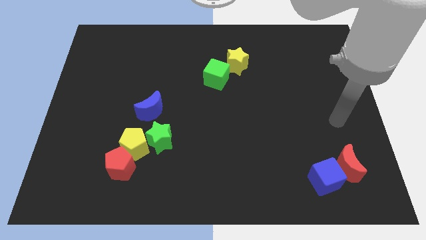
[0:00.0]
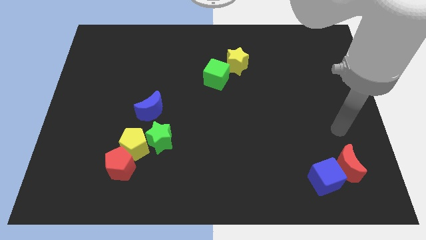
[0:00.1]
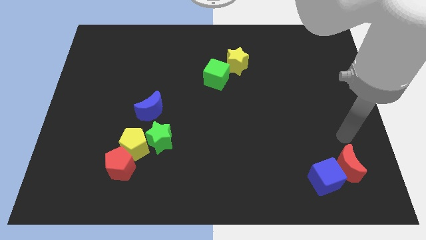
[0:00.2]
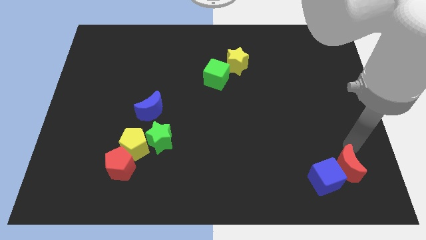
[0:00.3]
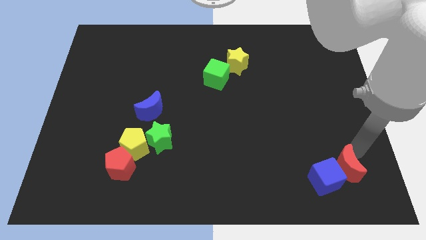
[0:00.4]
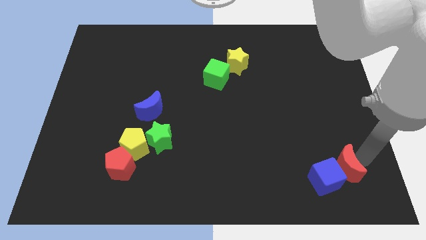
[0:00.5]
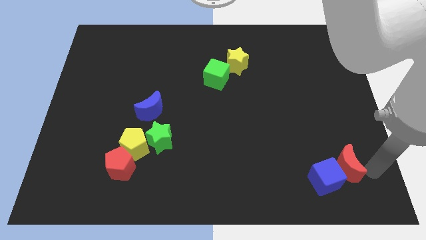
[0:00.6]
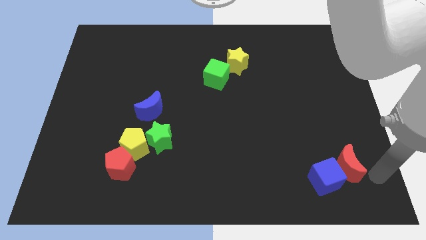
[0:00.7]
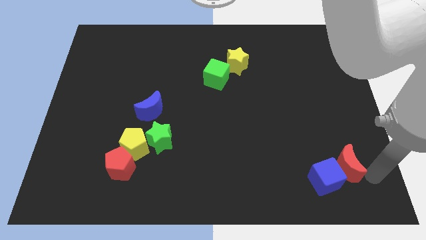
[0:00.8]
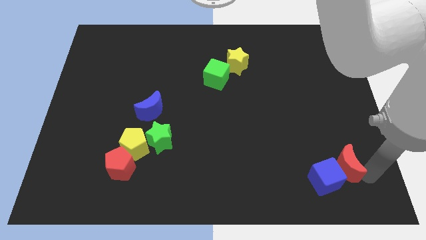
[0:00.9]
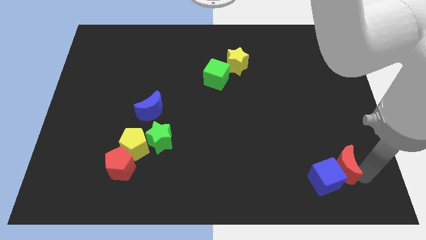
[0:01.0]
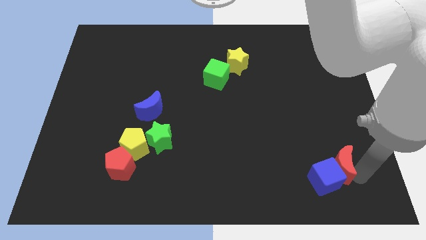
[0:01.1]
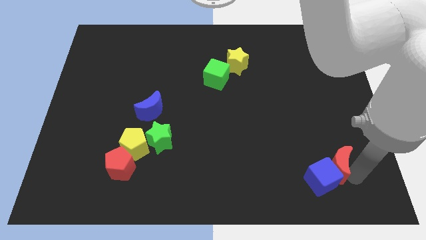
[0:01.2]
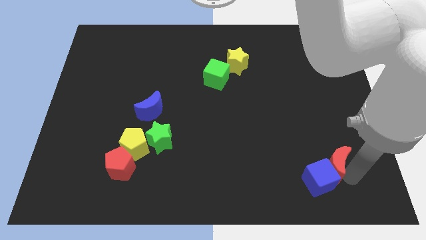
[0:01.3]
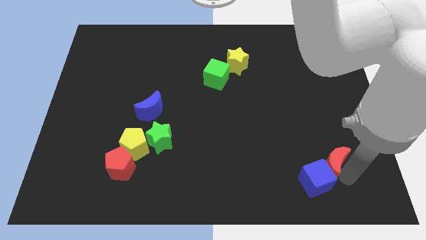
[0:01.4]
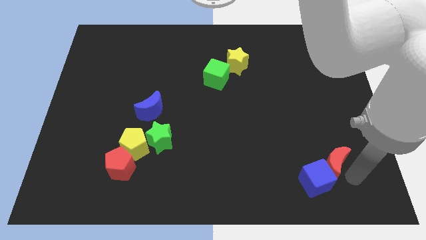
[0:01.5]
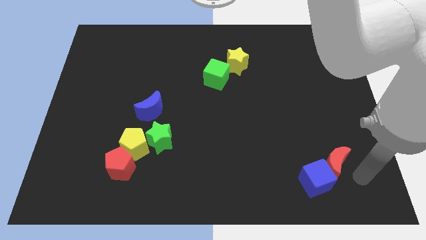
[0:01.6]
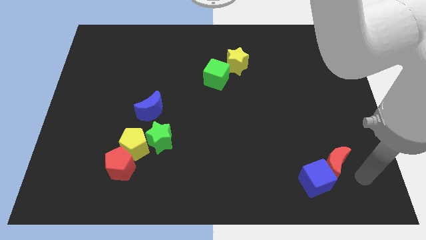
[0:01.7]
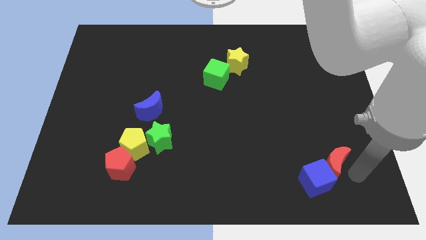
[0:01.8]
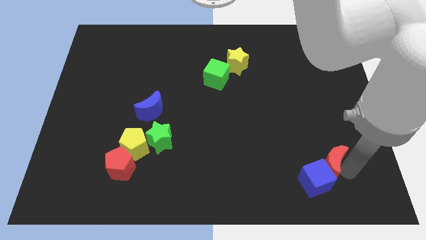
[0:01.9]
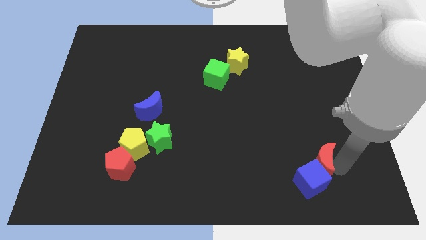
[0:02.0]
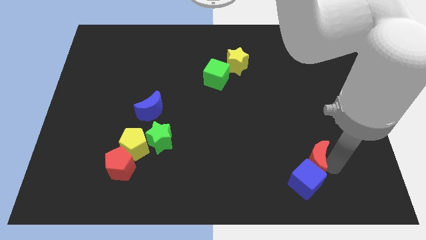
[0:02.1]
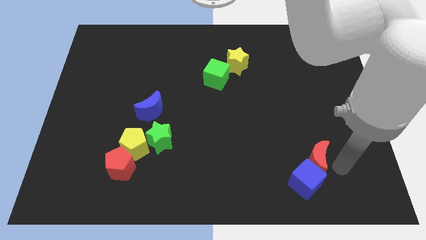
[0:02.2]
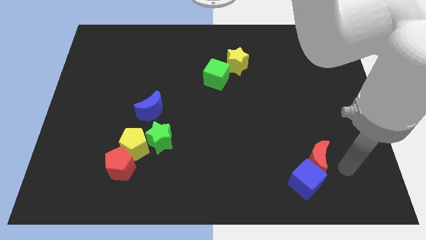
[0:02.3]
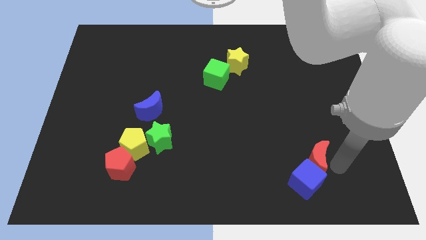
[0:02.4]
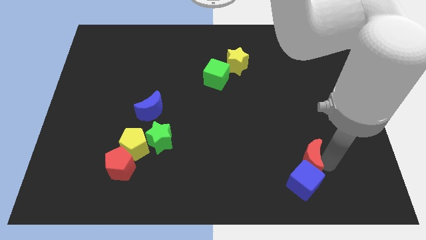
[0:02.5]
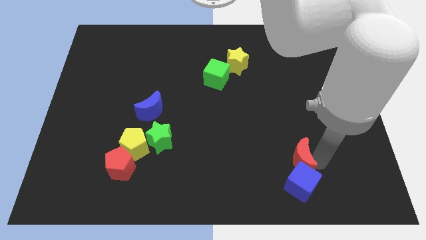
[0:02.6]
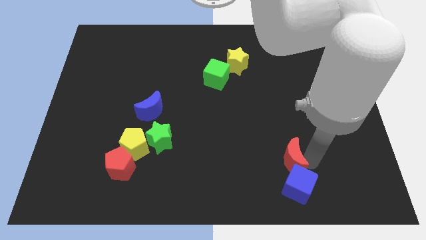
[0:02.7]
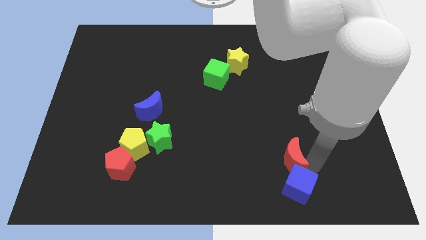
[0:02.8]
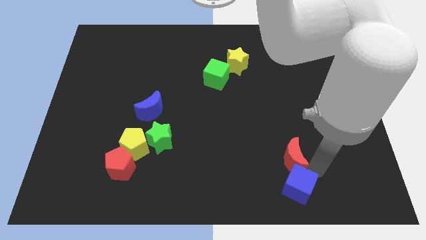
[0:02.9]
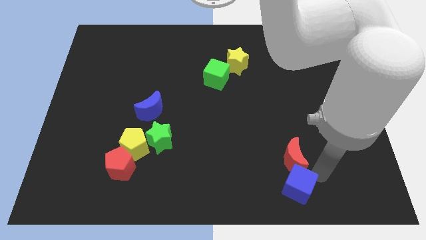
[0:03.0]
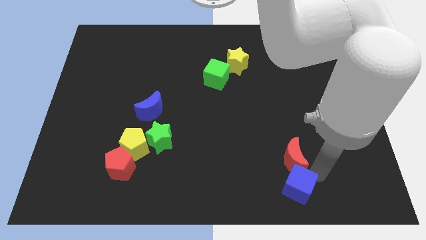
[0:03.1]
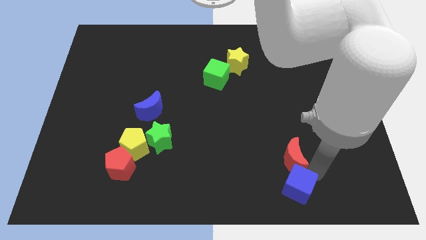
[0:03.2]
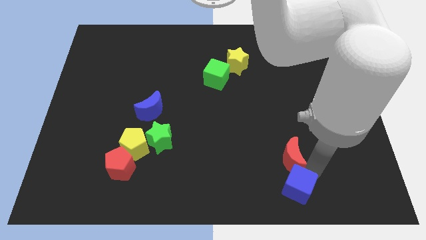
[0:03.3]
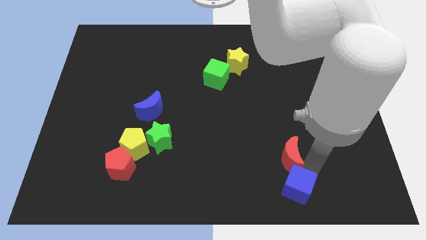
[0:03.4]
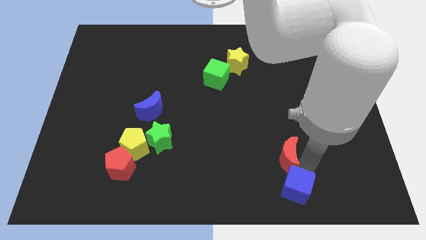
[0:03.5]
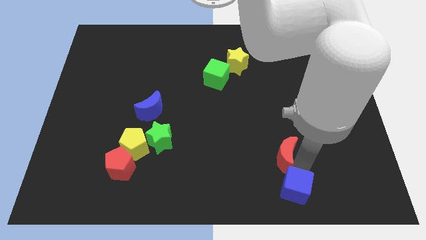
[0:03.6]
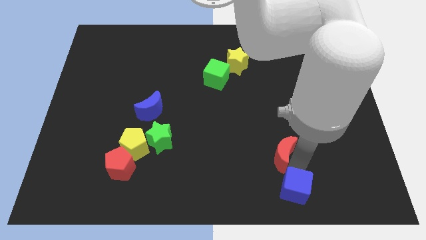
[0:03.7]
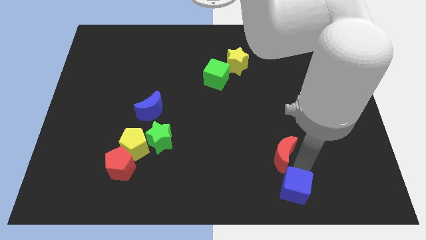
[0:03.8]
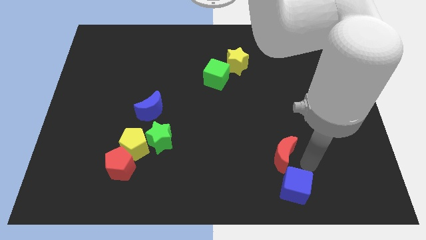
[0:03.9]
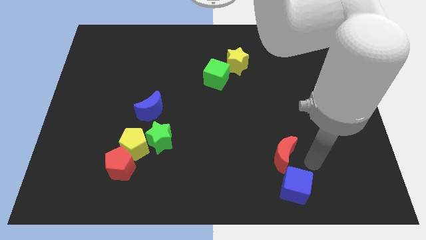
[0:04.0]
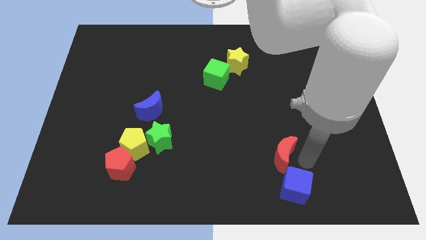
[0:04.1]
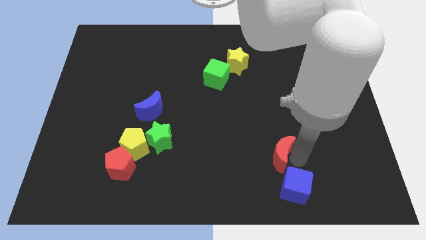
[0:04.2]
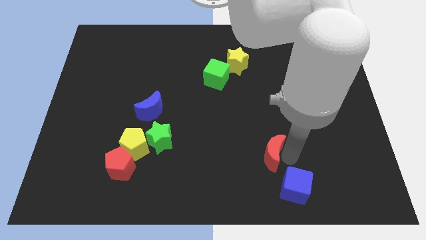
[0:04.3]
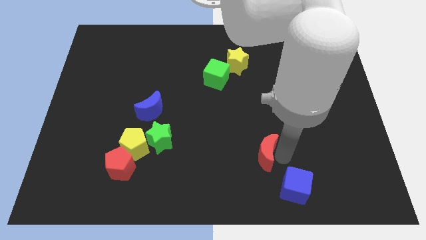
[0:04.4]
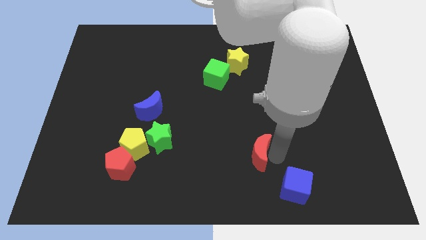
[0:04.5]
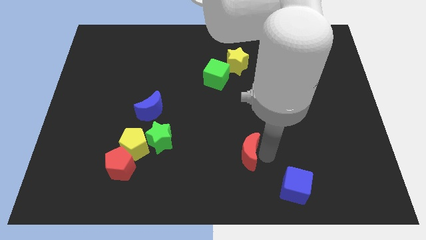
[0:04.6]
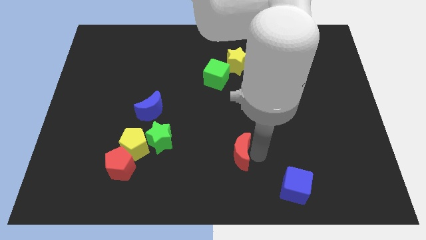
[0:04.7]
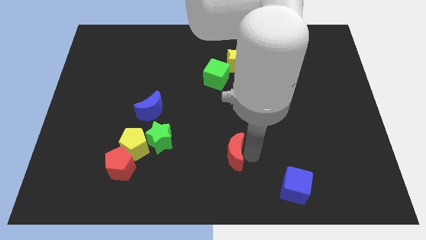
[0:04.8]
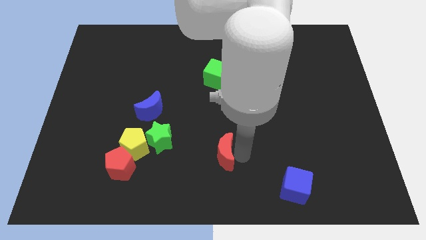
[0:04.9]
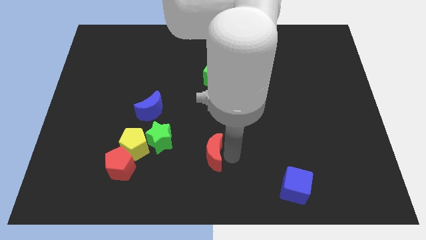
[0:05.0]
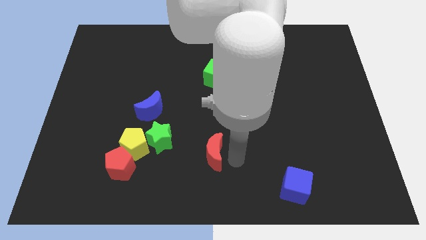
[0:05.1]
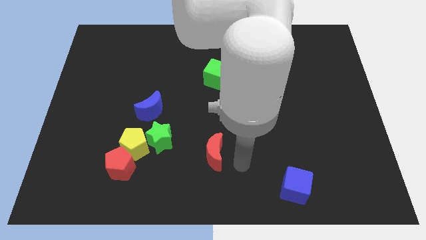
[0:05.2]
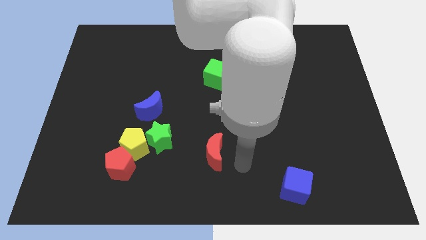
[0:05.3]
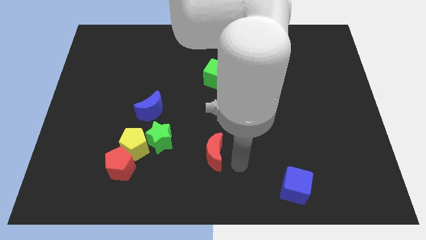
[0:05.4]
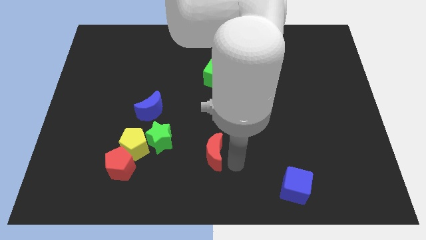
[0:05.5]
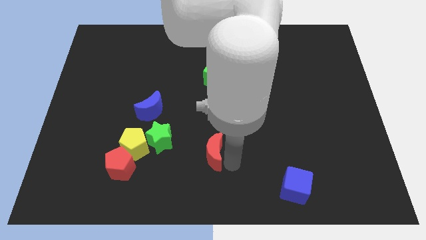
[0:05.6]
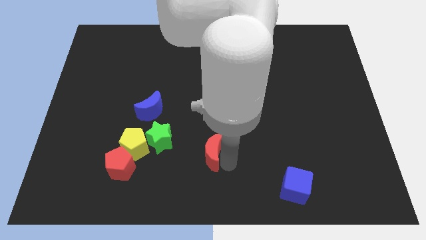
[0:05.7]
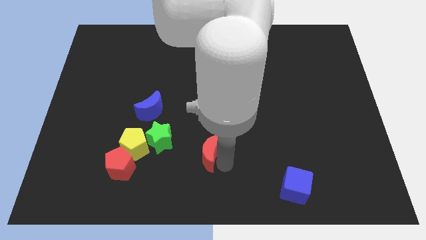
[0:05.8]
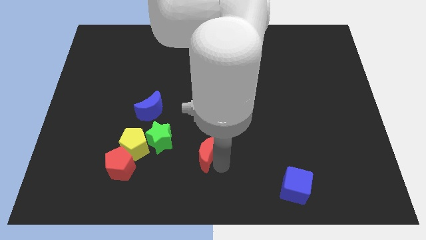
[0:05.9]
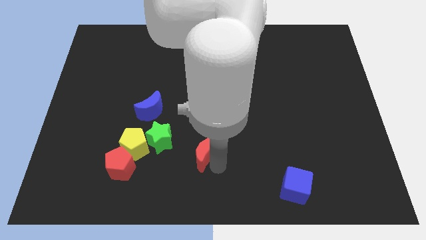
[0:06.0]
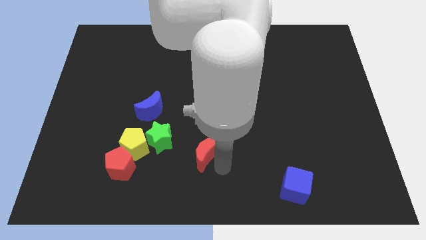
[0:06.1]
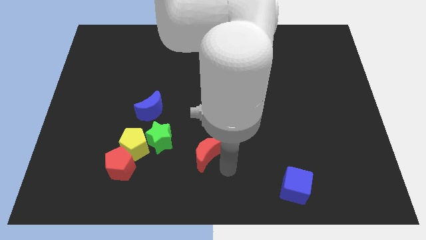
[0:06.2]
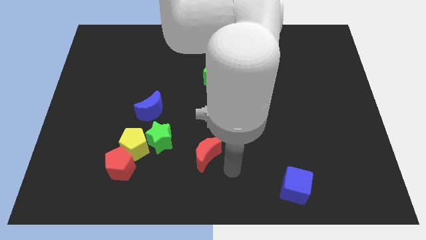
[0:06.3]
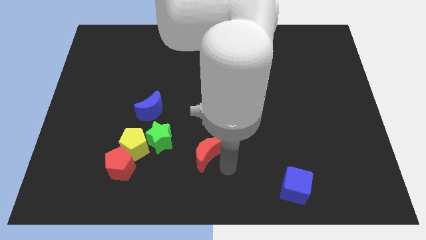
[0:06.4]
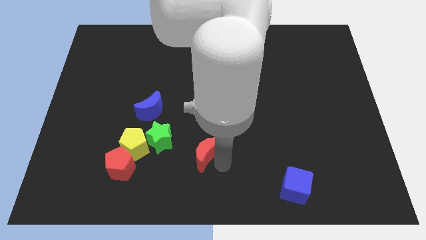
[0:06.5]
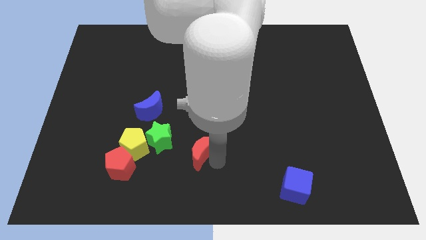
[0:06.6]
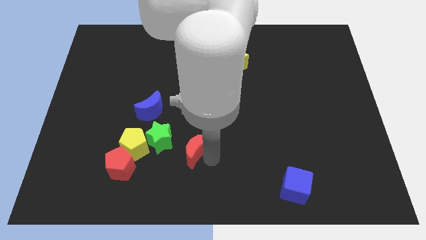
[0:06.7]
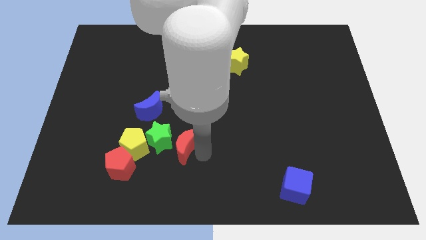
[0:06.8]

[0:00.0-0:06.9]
move the red moon close to the green star

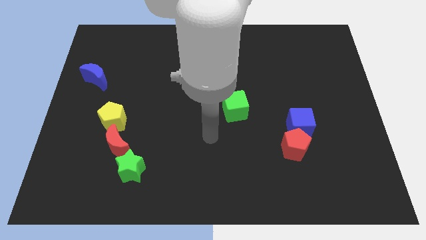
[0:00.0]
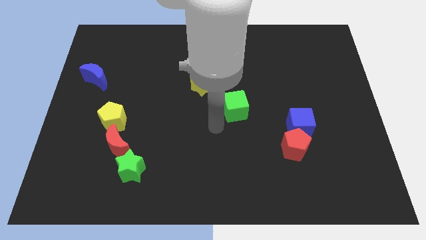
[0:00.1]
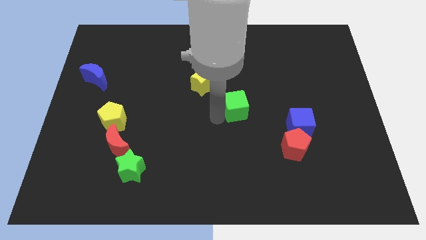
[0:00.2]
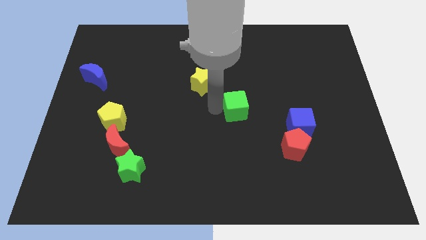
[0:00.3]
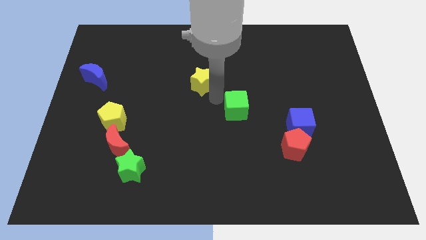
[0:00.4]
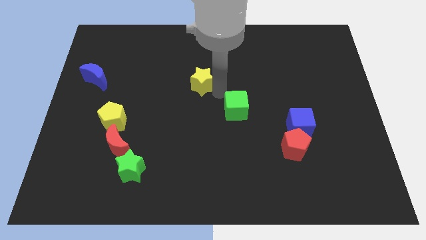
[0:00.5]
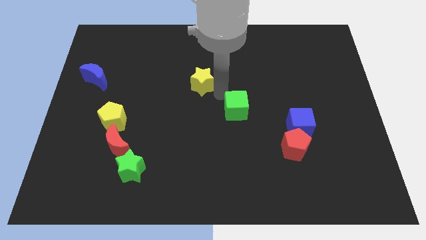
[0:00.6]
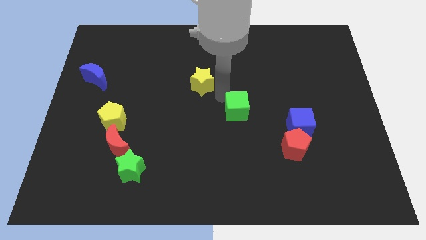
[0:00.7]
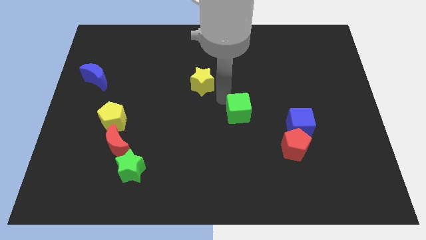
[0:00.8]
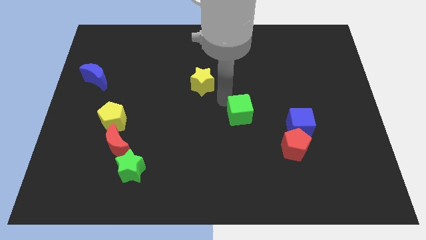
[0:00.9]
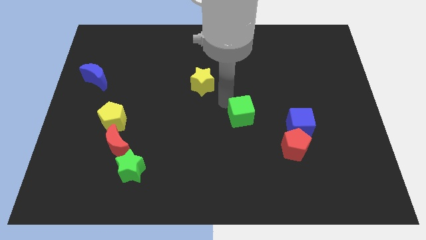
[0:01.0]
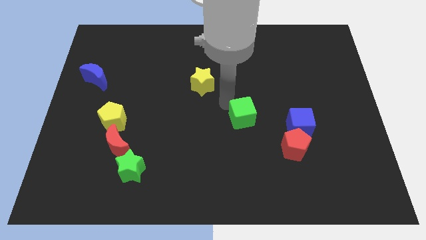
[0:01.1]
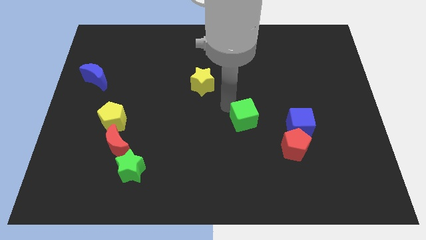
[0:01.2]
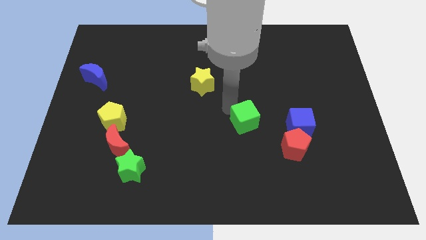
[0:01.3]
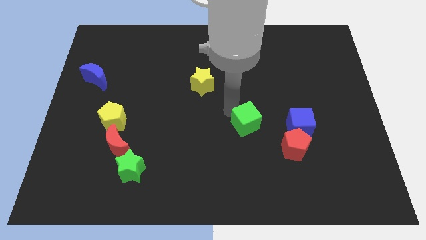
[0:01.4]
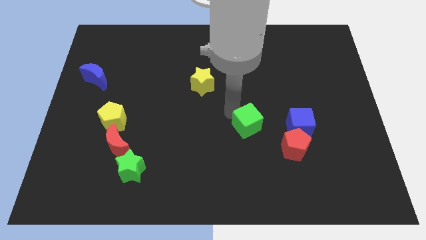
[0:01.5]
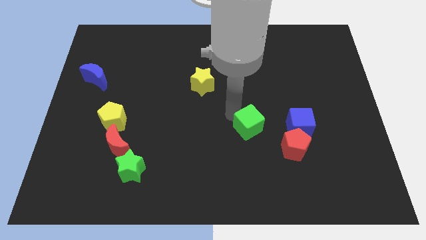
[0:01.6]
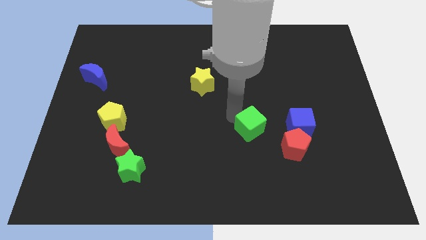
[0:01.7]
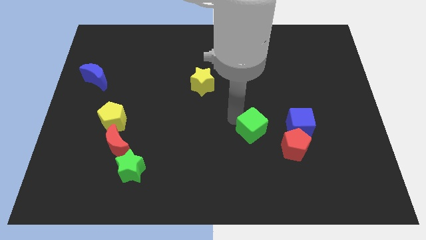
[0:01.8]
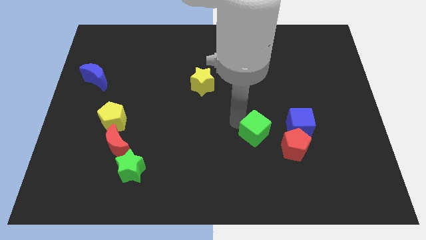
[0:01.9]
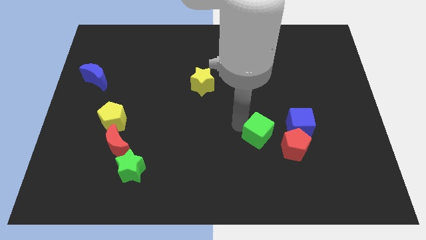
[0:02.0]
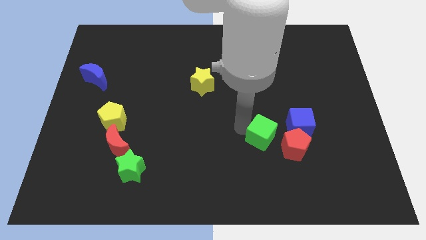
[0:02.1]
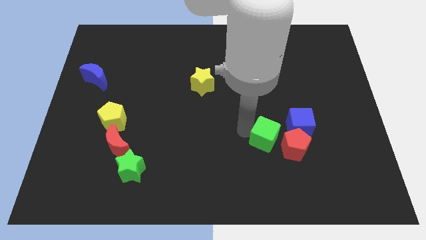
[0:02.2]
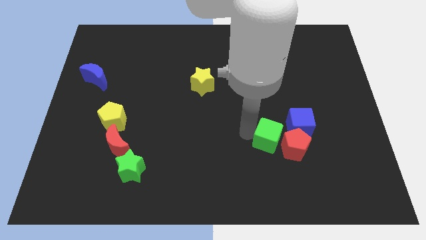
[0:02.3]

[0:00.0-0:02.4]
push the green cube towards the red pentagon
